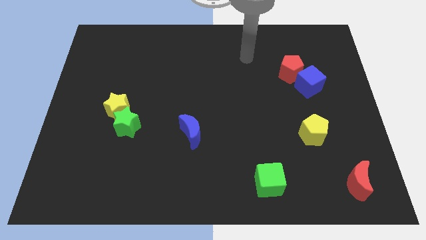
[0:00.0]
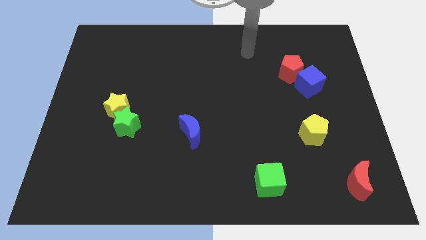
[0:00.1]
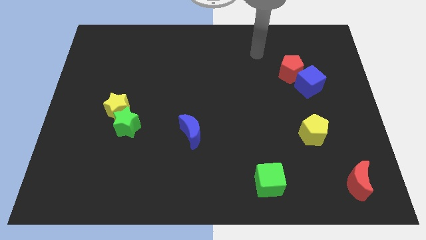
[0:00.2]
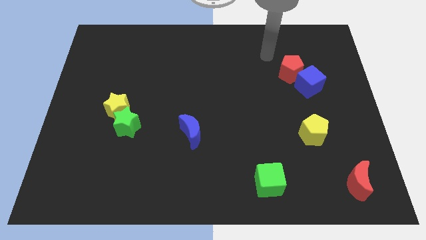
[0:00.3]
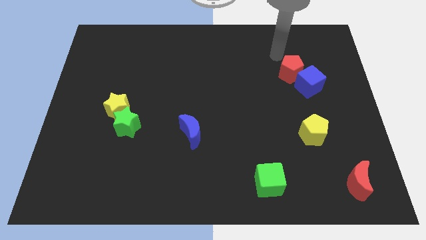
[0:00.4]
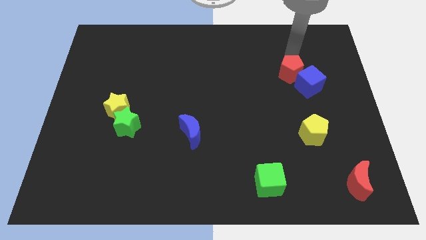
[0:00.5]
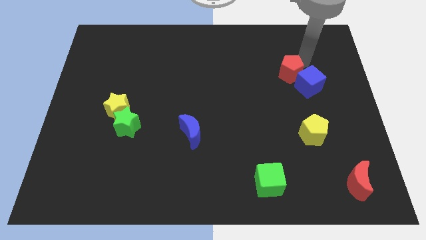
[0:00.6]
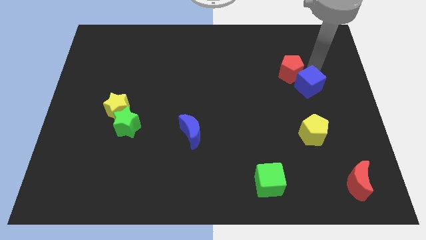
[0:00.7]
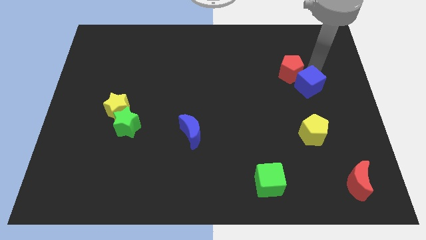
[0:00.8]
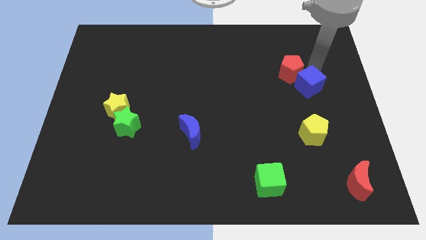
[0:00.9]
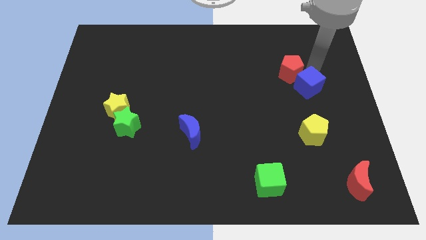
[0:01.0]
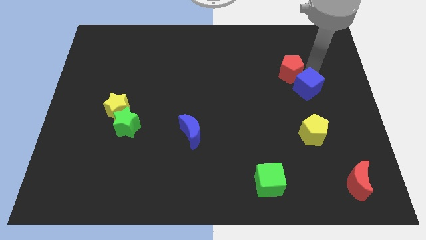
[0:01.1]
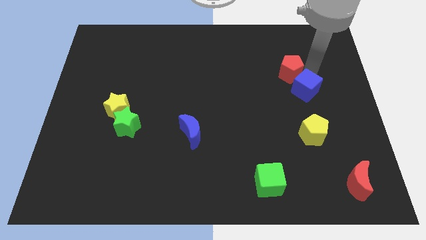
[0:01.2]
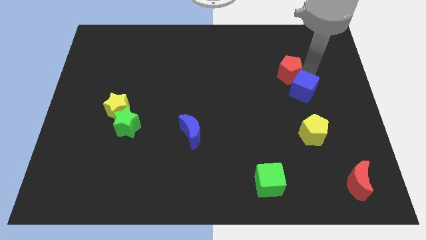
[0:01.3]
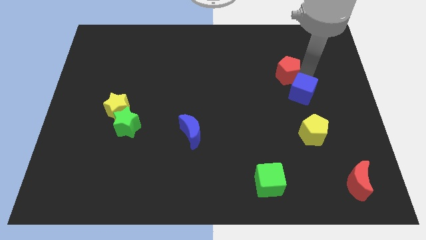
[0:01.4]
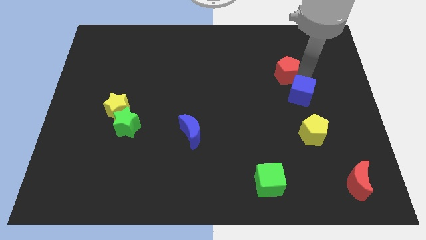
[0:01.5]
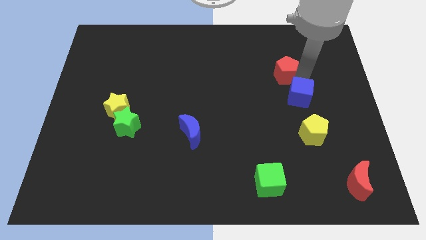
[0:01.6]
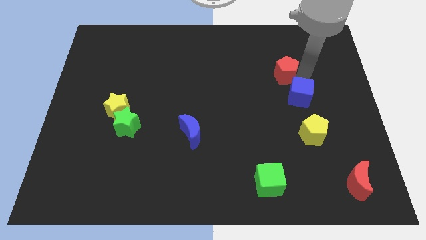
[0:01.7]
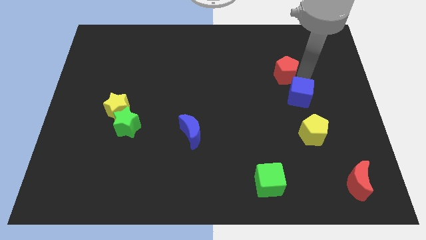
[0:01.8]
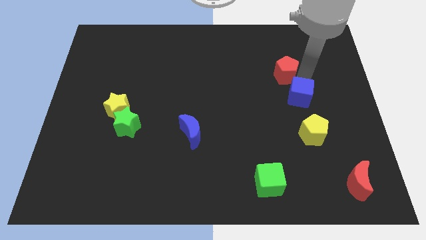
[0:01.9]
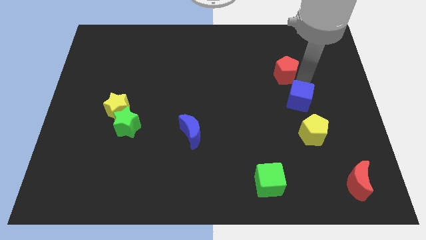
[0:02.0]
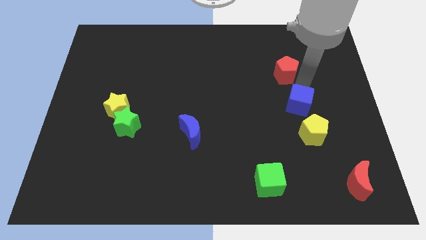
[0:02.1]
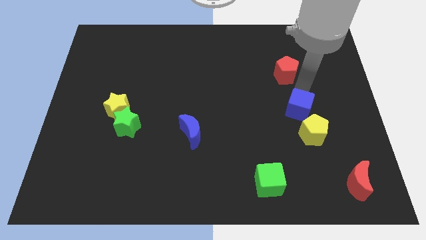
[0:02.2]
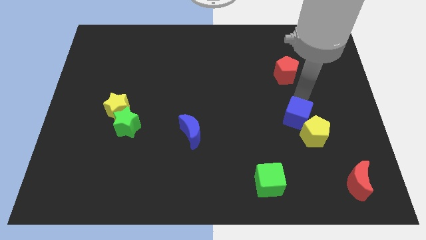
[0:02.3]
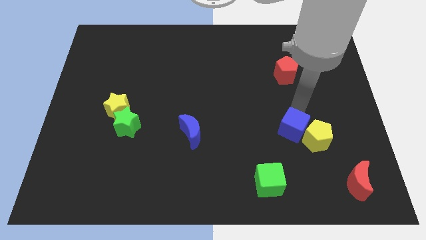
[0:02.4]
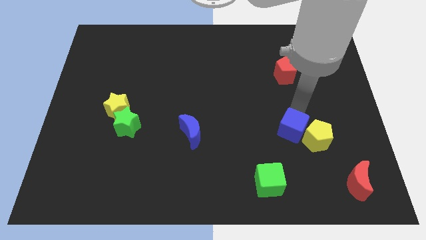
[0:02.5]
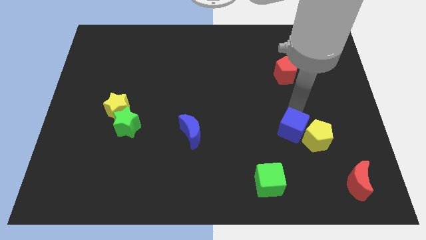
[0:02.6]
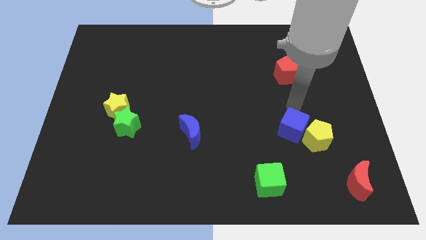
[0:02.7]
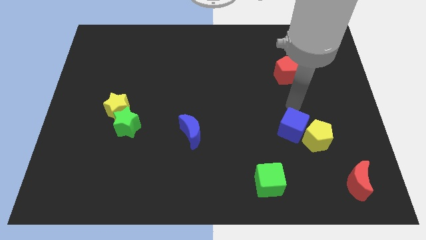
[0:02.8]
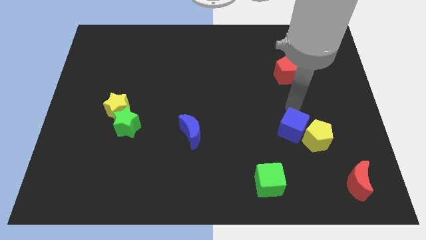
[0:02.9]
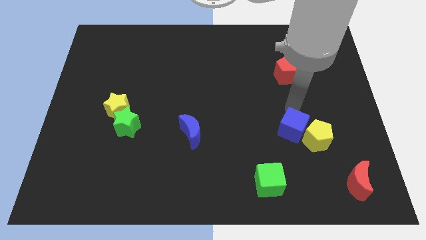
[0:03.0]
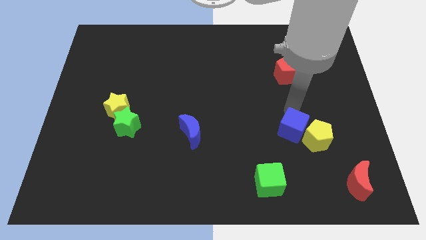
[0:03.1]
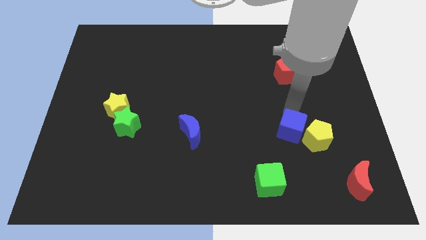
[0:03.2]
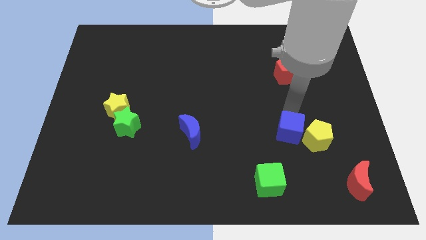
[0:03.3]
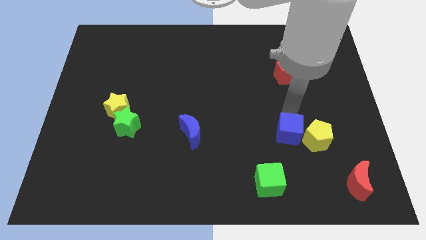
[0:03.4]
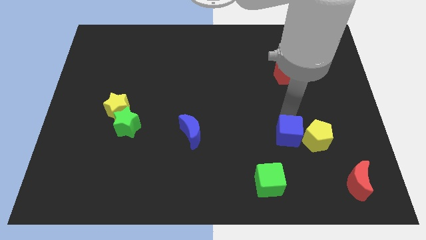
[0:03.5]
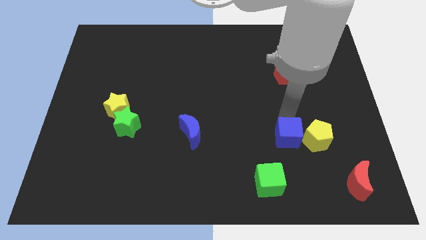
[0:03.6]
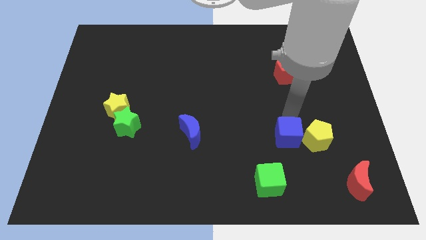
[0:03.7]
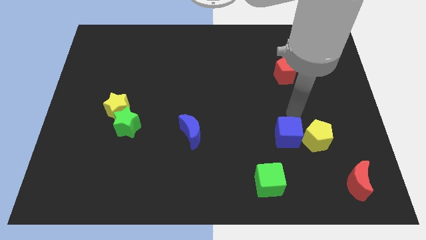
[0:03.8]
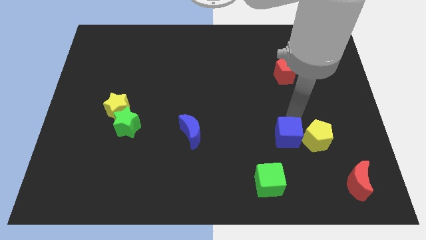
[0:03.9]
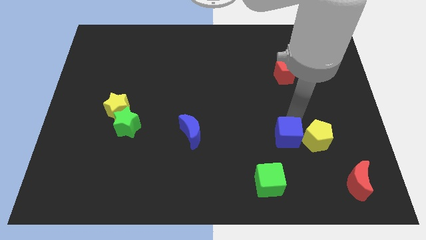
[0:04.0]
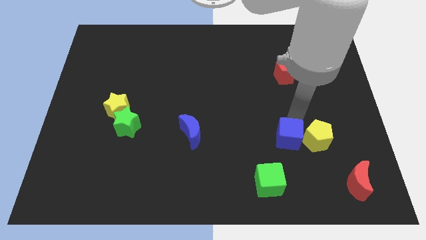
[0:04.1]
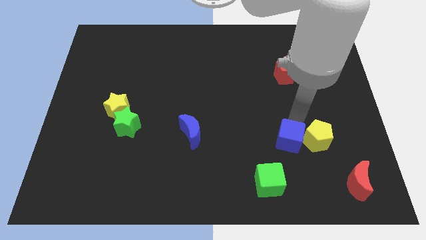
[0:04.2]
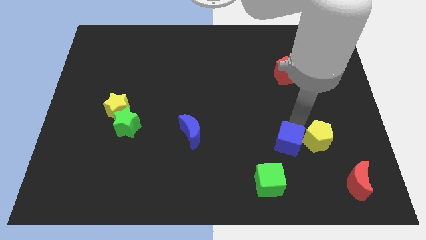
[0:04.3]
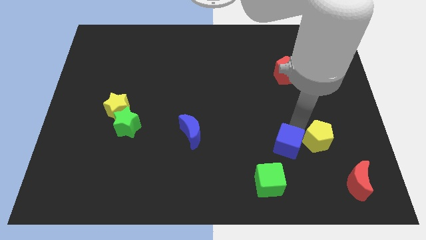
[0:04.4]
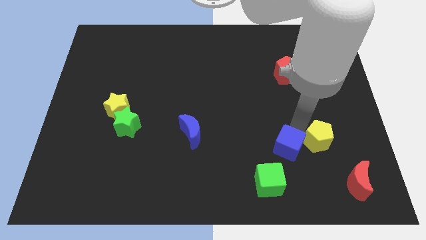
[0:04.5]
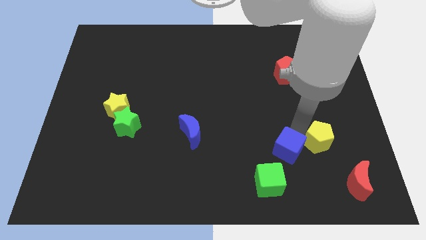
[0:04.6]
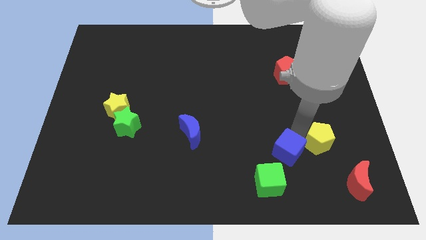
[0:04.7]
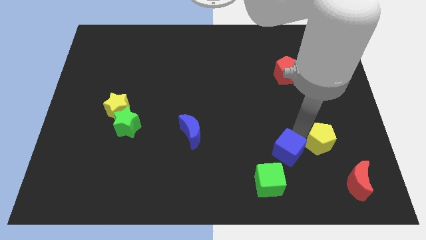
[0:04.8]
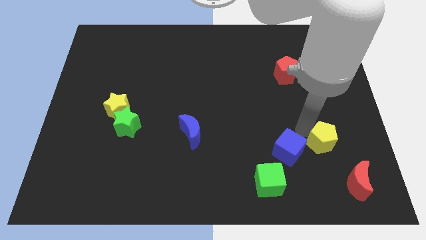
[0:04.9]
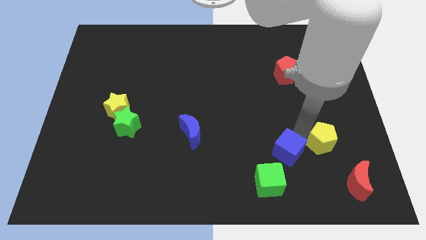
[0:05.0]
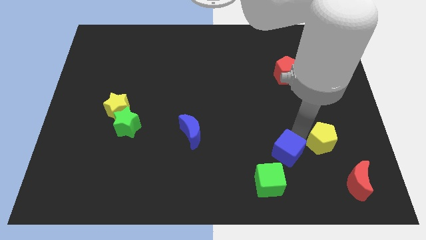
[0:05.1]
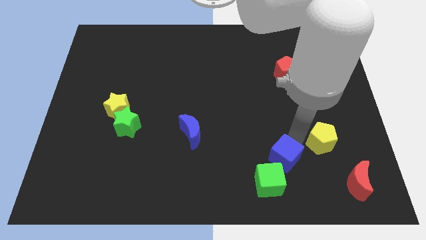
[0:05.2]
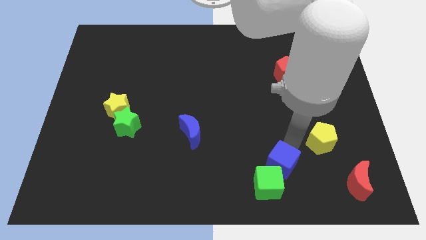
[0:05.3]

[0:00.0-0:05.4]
slide the blue cube to the green cube

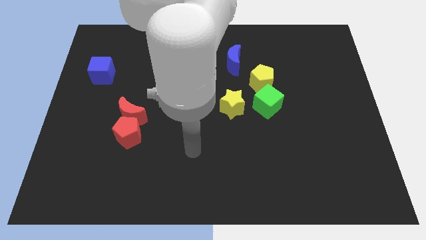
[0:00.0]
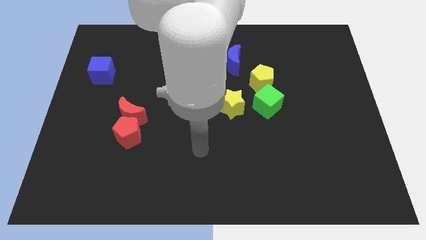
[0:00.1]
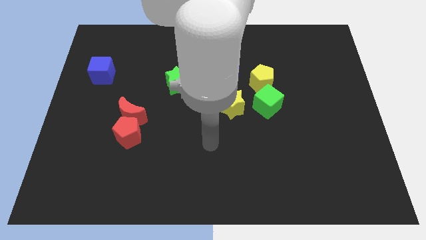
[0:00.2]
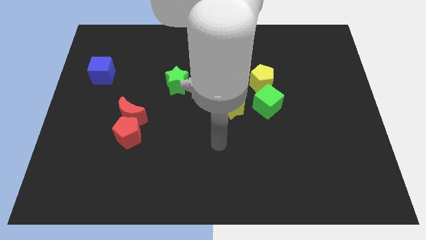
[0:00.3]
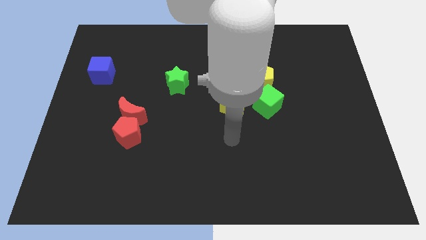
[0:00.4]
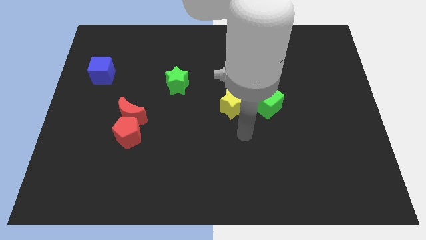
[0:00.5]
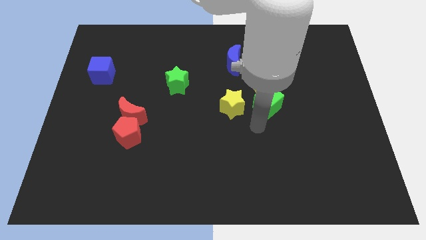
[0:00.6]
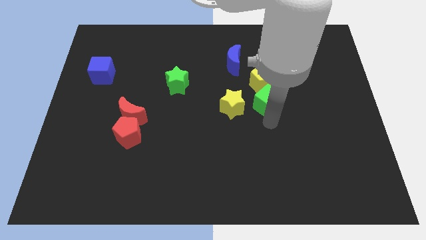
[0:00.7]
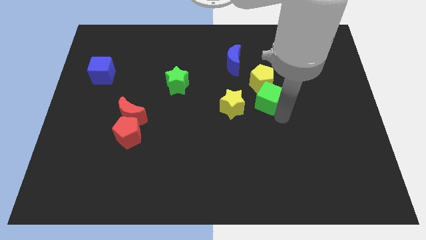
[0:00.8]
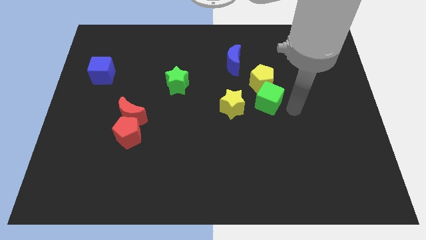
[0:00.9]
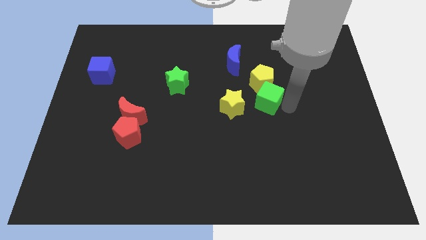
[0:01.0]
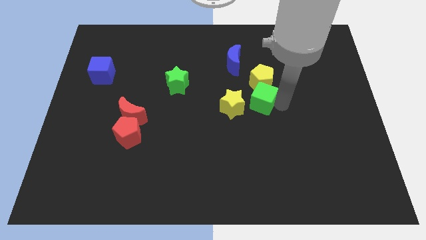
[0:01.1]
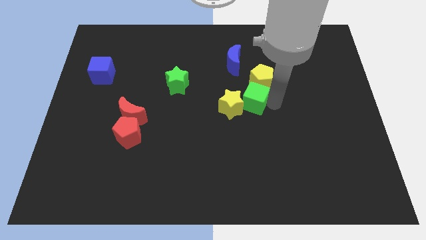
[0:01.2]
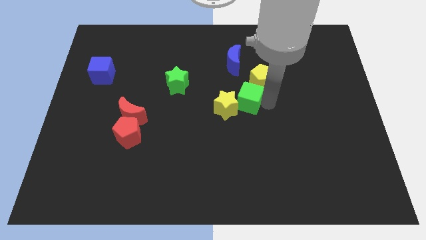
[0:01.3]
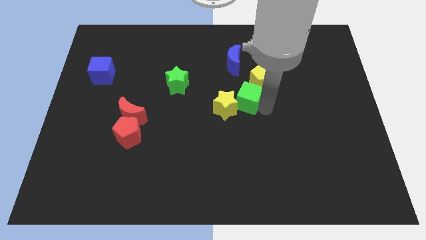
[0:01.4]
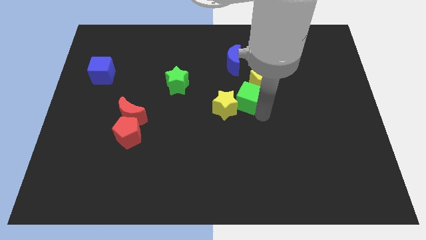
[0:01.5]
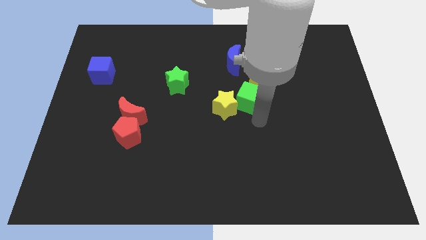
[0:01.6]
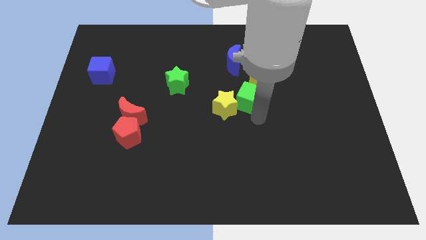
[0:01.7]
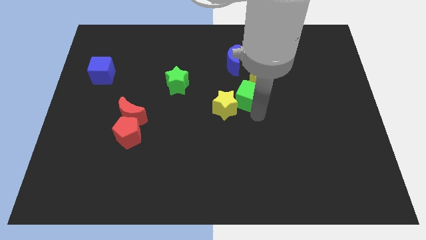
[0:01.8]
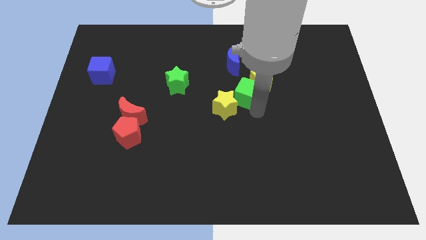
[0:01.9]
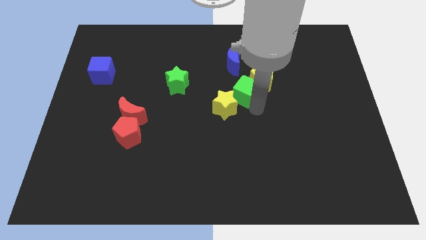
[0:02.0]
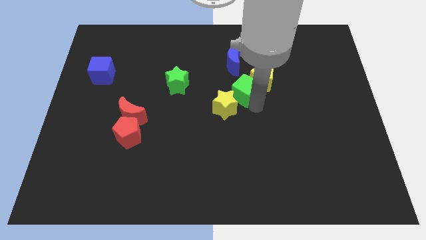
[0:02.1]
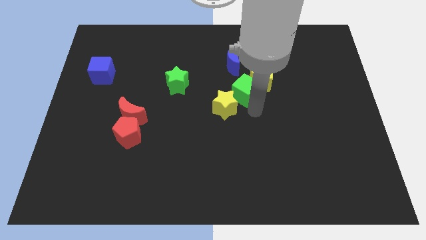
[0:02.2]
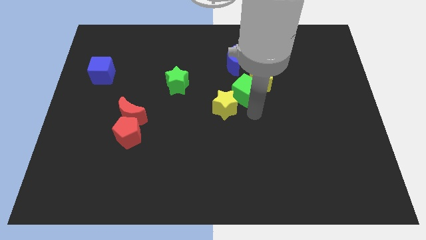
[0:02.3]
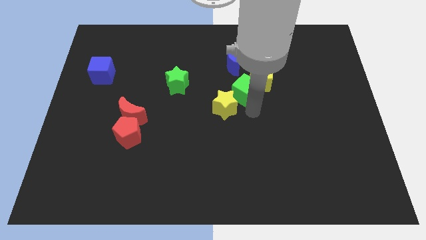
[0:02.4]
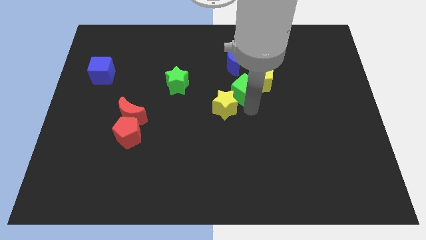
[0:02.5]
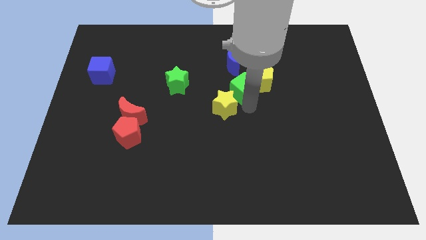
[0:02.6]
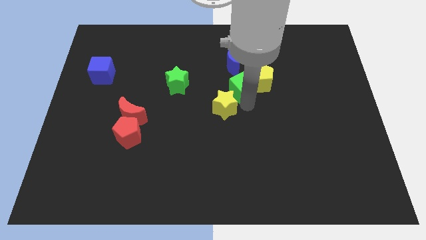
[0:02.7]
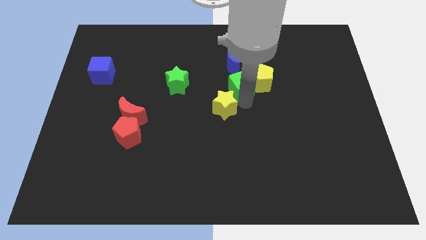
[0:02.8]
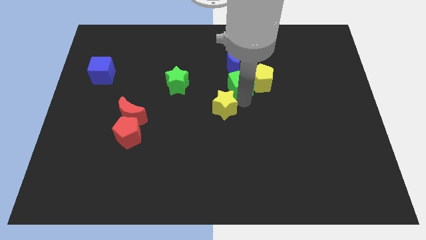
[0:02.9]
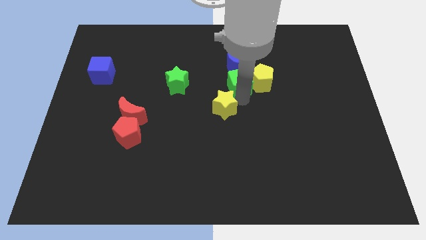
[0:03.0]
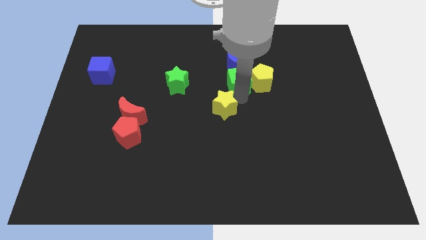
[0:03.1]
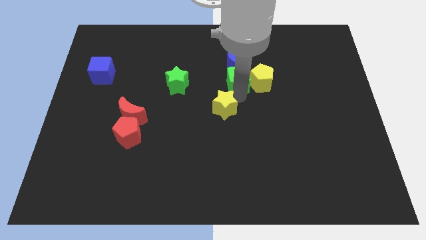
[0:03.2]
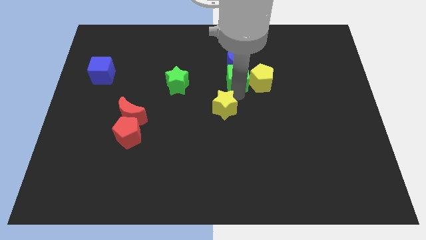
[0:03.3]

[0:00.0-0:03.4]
put the green cube close to the blue moon
